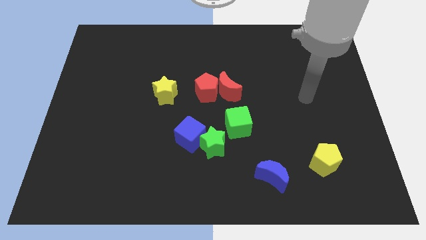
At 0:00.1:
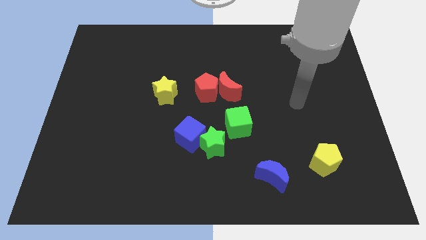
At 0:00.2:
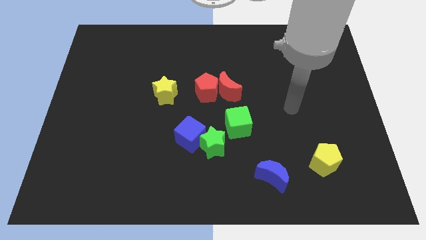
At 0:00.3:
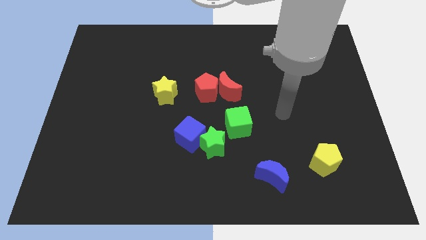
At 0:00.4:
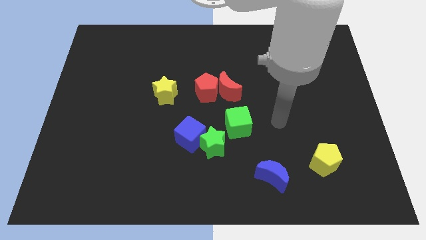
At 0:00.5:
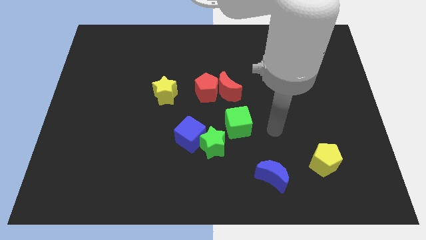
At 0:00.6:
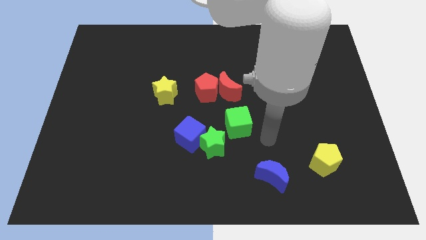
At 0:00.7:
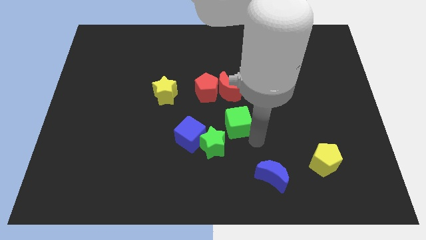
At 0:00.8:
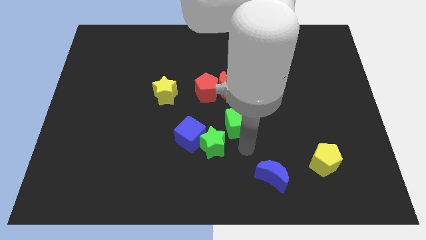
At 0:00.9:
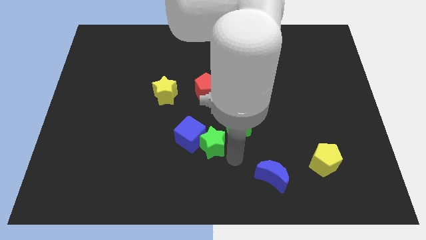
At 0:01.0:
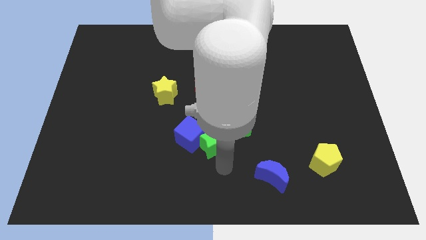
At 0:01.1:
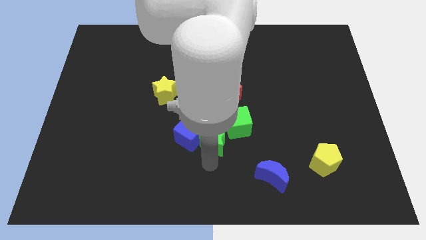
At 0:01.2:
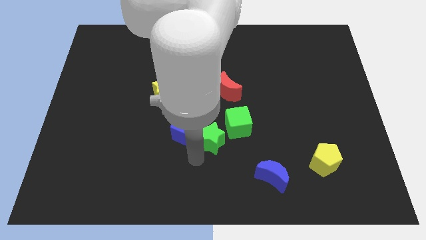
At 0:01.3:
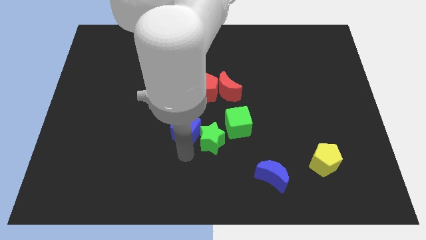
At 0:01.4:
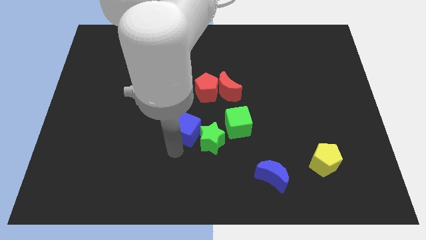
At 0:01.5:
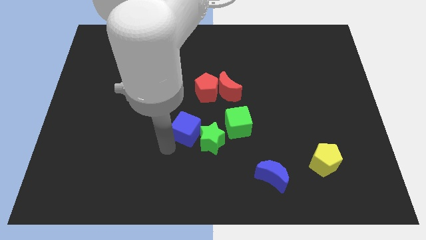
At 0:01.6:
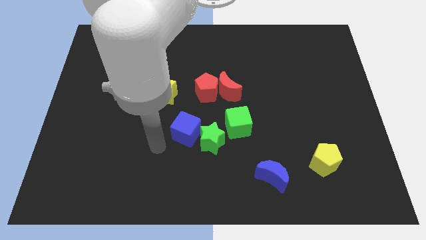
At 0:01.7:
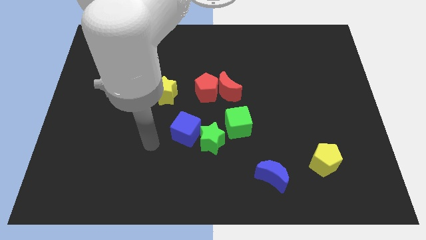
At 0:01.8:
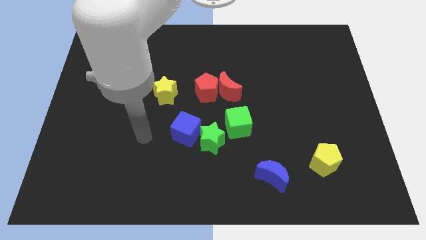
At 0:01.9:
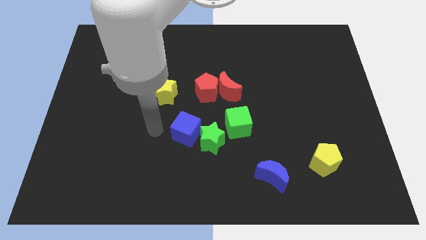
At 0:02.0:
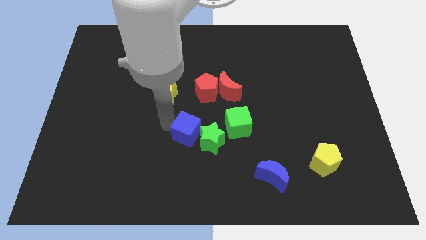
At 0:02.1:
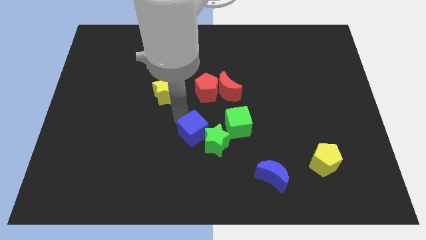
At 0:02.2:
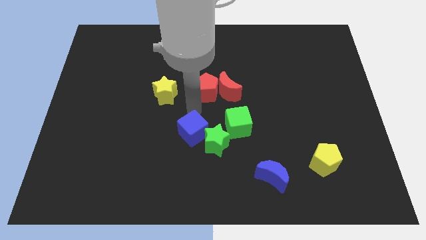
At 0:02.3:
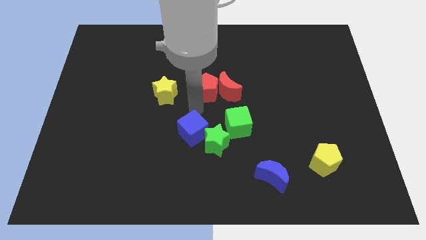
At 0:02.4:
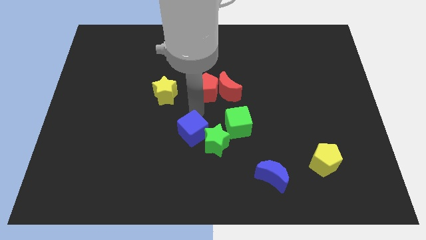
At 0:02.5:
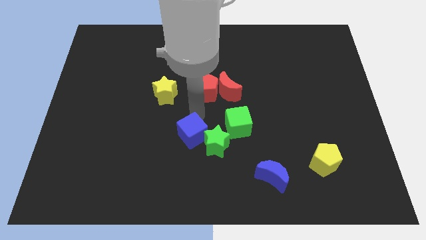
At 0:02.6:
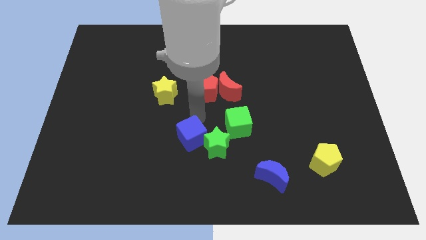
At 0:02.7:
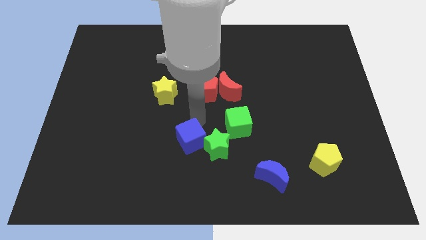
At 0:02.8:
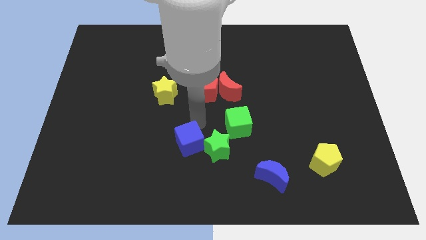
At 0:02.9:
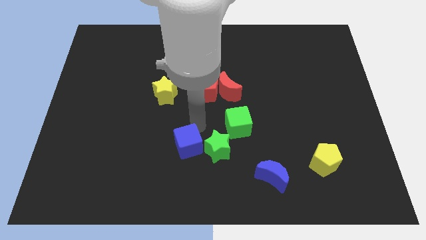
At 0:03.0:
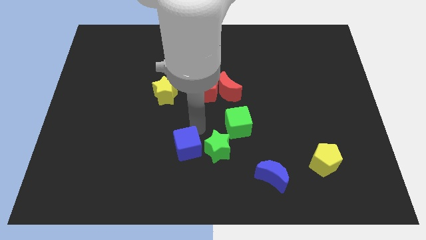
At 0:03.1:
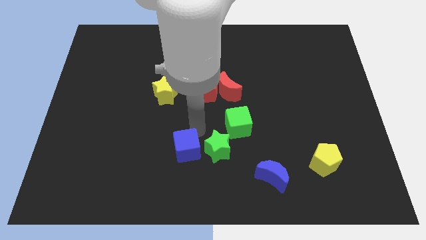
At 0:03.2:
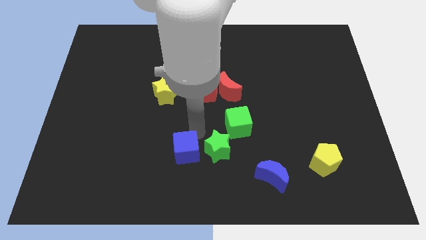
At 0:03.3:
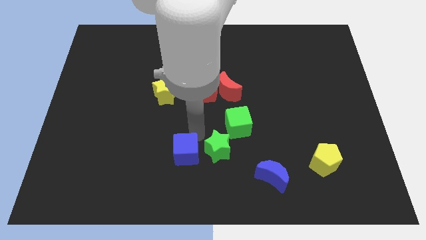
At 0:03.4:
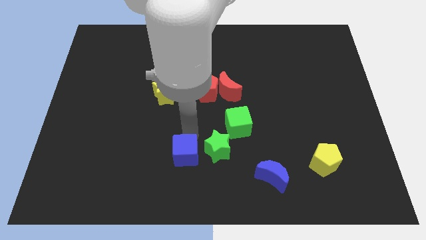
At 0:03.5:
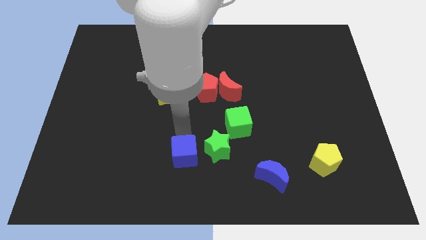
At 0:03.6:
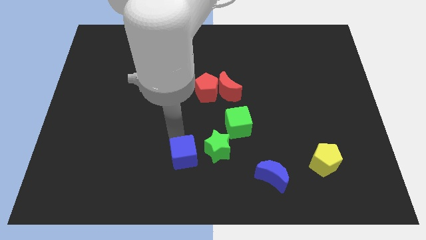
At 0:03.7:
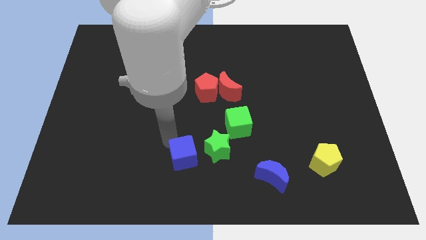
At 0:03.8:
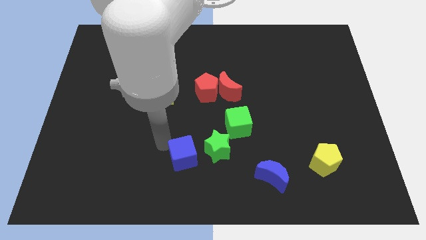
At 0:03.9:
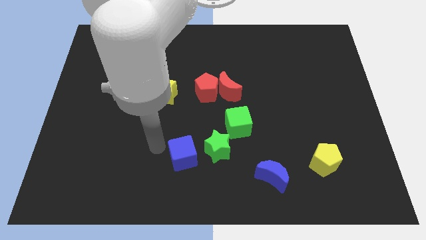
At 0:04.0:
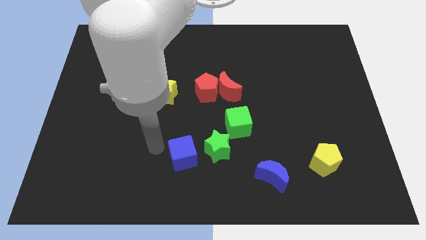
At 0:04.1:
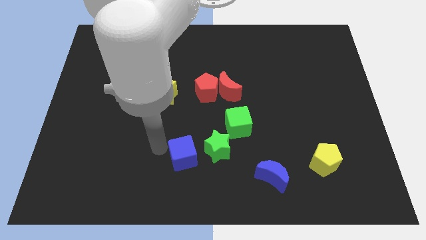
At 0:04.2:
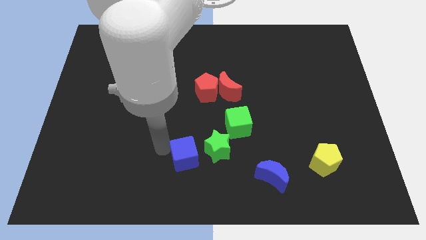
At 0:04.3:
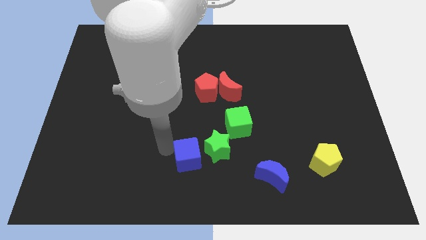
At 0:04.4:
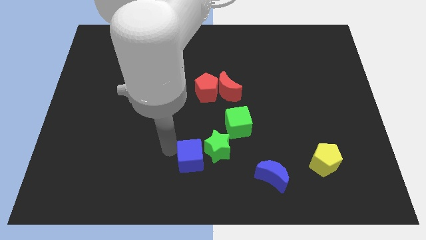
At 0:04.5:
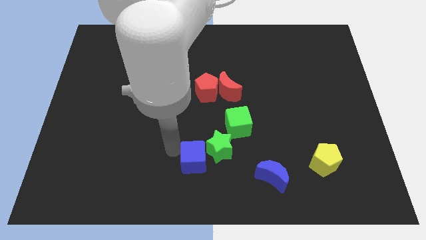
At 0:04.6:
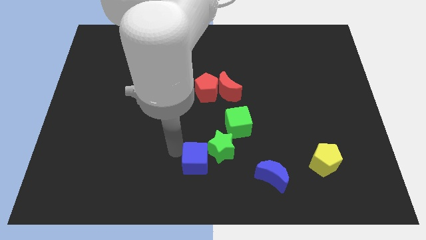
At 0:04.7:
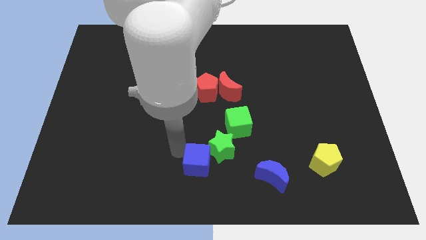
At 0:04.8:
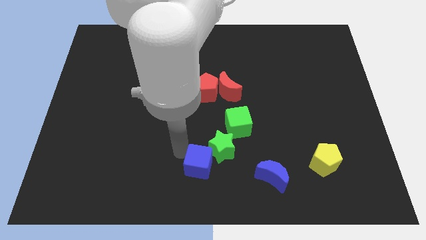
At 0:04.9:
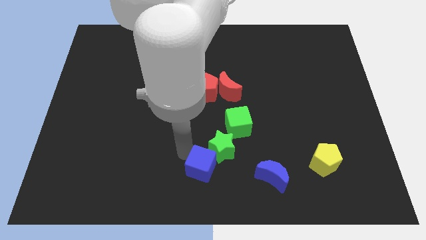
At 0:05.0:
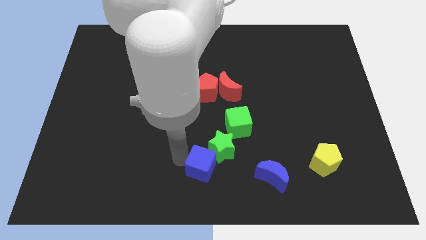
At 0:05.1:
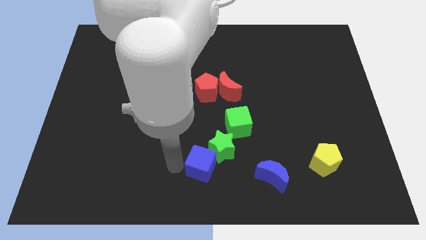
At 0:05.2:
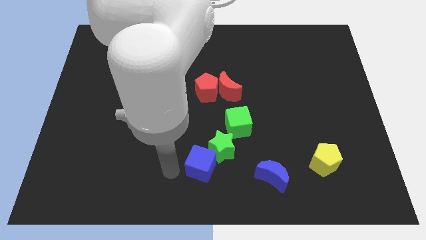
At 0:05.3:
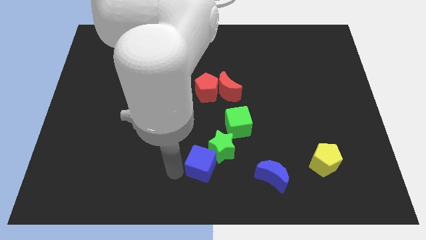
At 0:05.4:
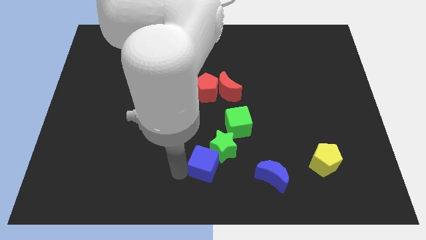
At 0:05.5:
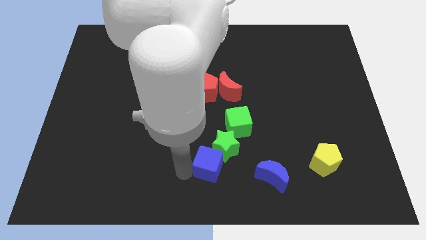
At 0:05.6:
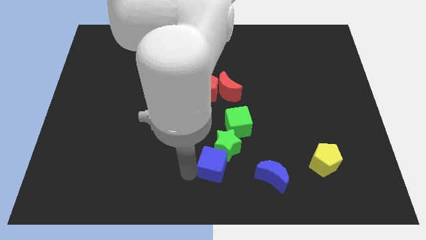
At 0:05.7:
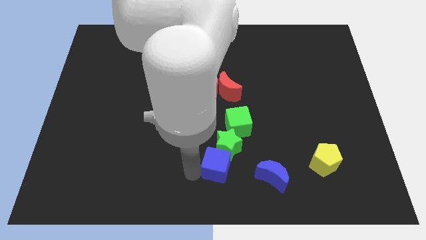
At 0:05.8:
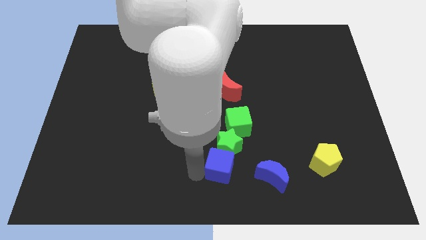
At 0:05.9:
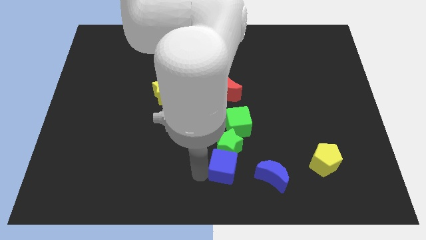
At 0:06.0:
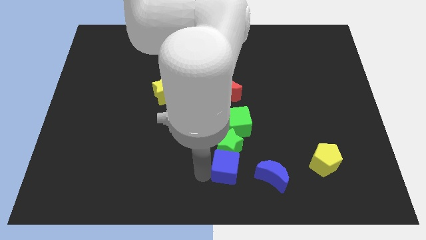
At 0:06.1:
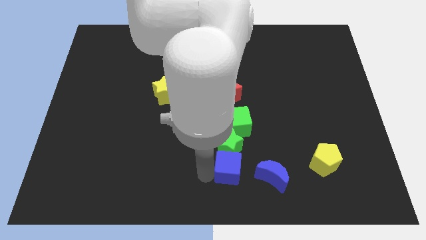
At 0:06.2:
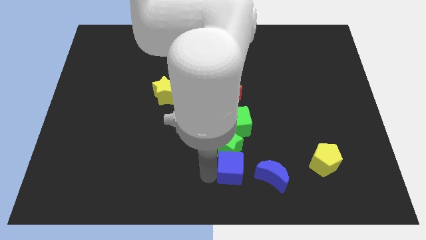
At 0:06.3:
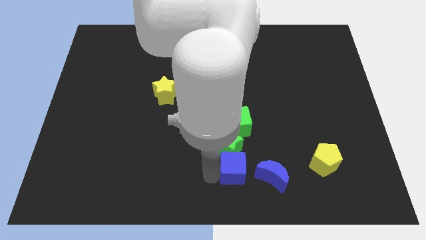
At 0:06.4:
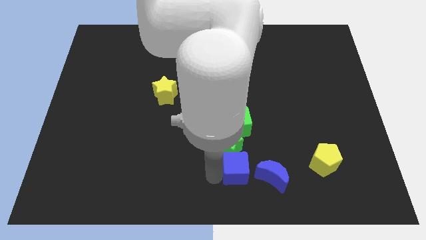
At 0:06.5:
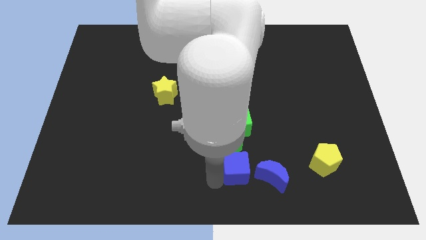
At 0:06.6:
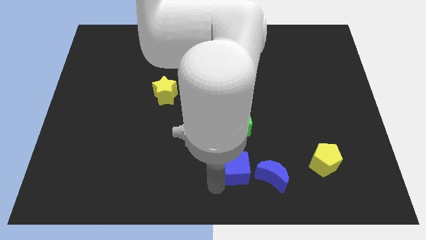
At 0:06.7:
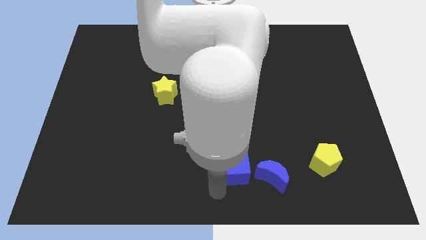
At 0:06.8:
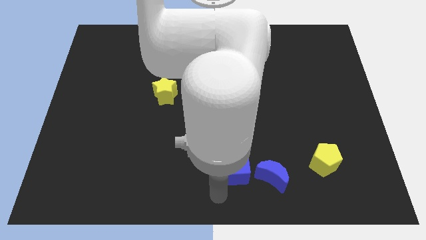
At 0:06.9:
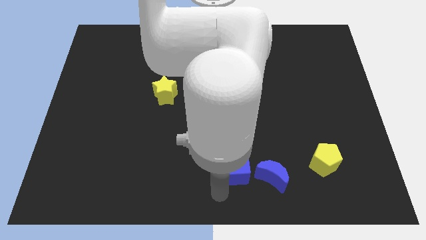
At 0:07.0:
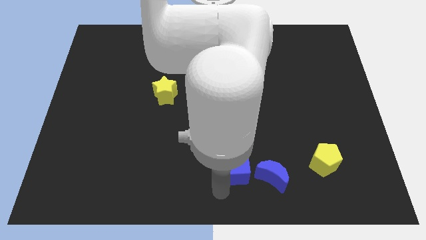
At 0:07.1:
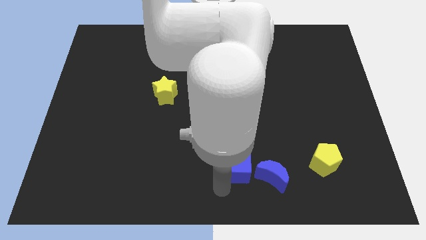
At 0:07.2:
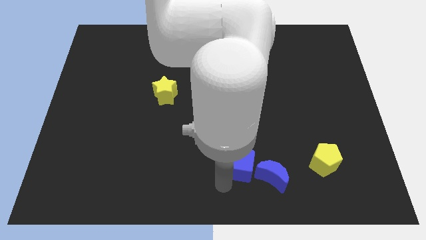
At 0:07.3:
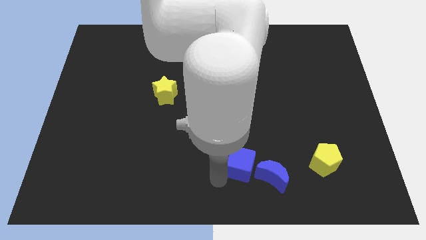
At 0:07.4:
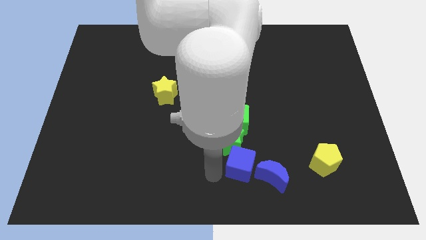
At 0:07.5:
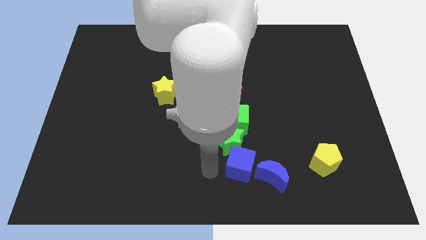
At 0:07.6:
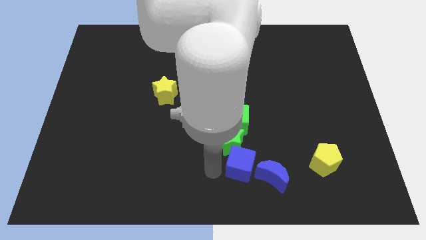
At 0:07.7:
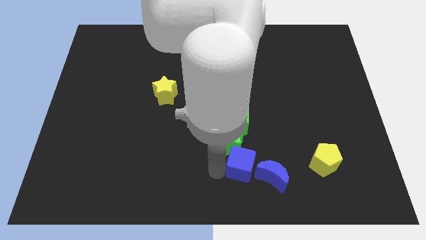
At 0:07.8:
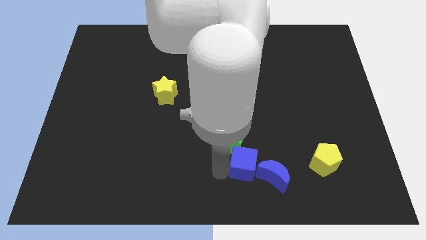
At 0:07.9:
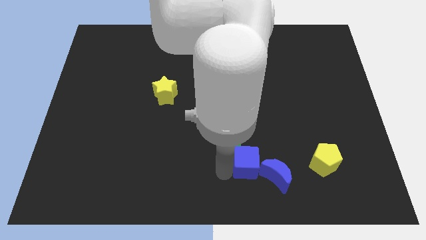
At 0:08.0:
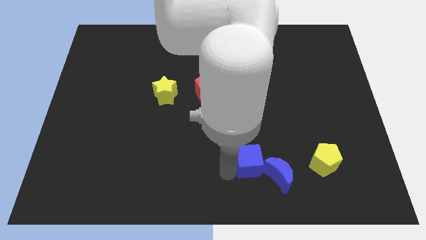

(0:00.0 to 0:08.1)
put the blue cube just left of the yellow pentagon

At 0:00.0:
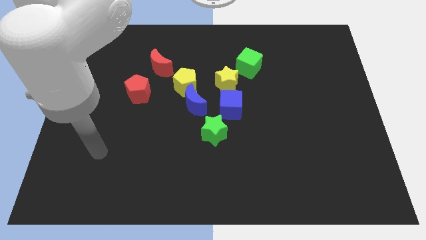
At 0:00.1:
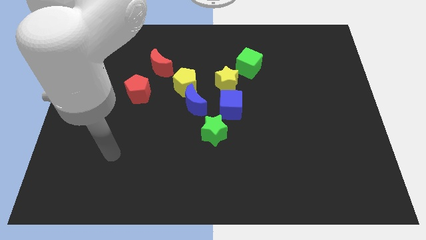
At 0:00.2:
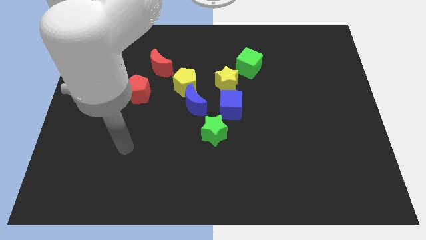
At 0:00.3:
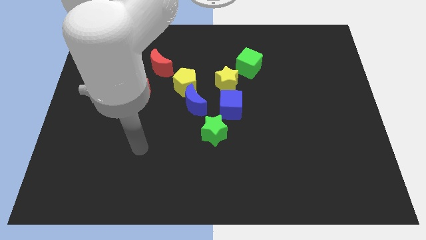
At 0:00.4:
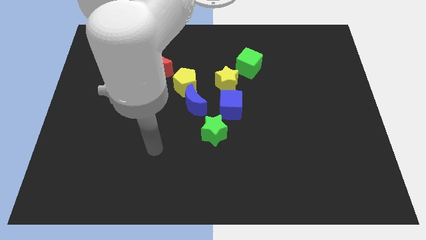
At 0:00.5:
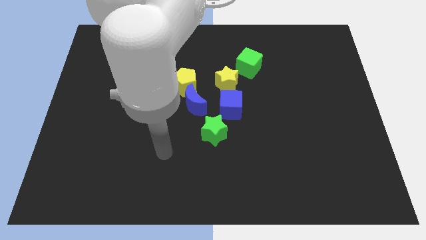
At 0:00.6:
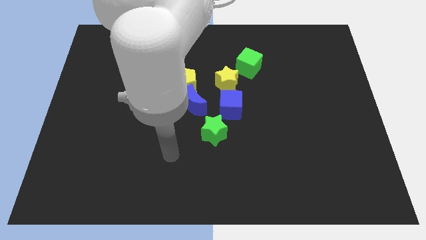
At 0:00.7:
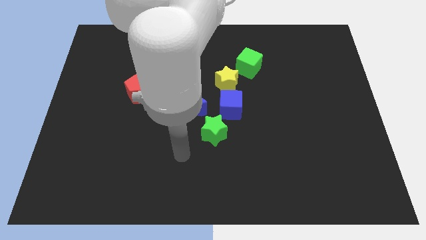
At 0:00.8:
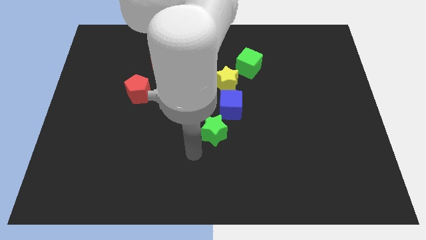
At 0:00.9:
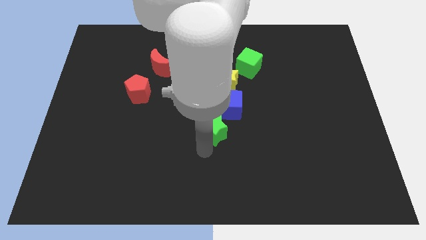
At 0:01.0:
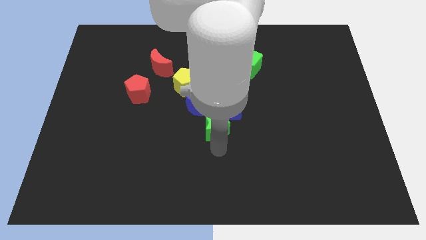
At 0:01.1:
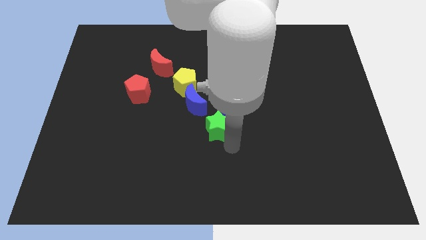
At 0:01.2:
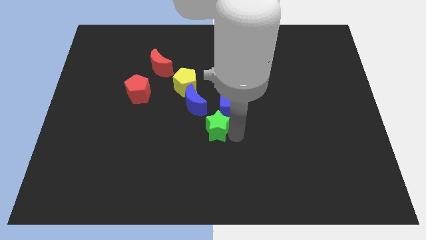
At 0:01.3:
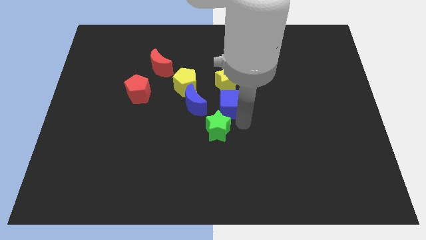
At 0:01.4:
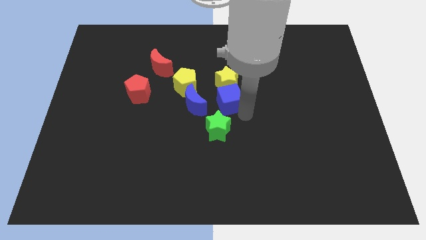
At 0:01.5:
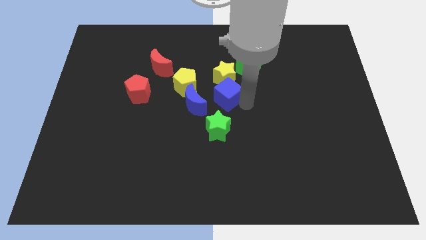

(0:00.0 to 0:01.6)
slide the yellow star to the top right of the yellow pentagon
